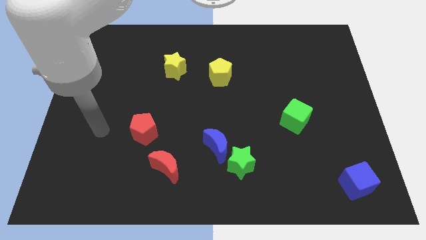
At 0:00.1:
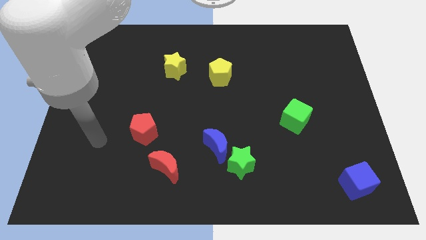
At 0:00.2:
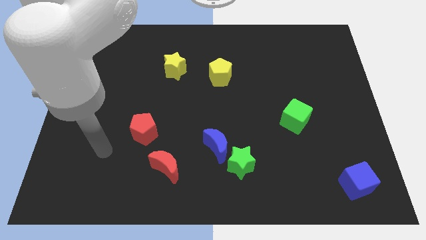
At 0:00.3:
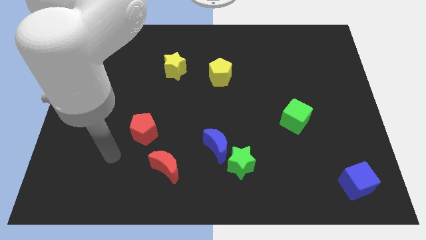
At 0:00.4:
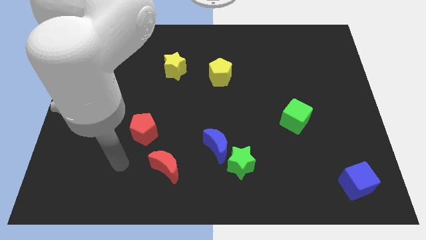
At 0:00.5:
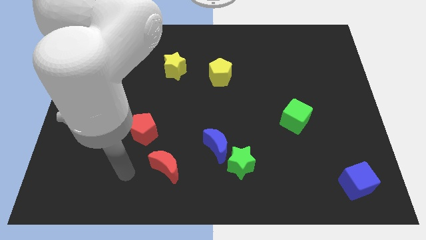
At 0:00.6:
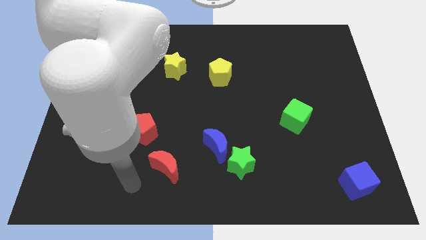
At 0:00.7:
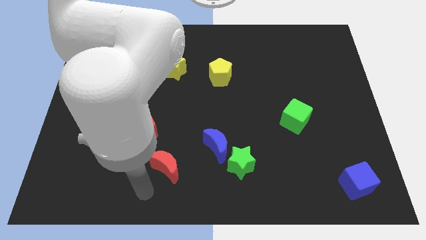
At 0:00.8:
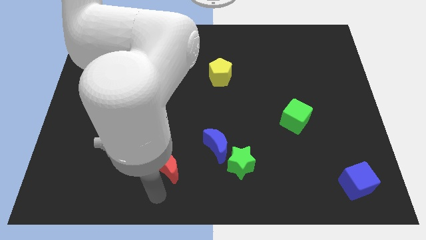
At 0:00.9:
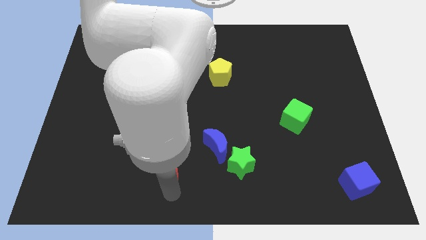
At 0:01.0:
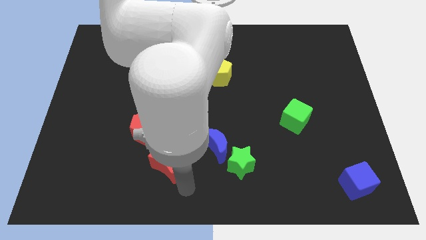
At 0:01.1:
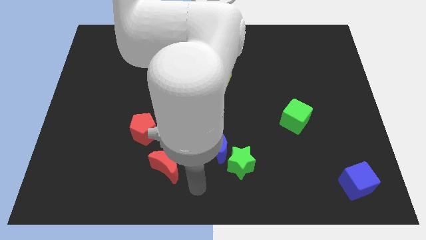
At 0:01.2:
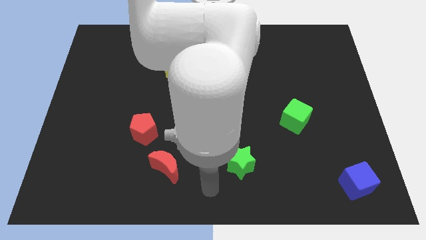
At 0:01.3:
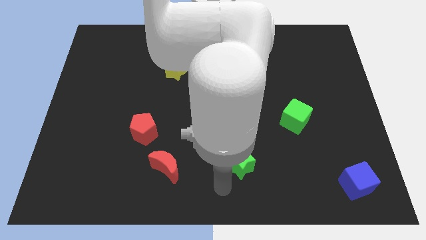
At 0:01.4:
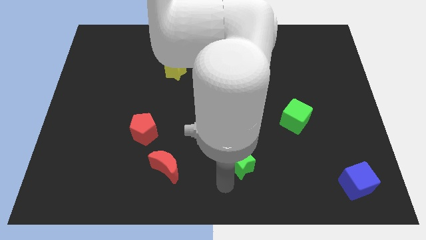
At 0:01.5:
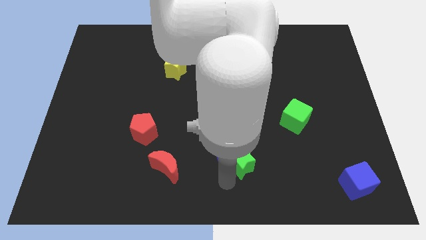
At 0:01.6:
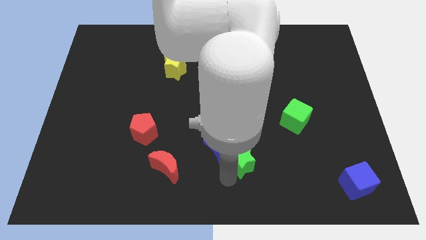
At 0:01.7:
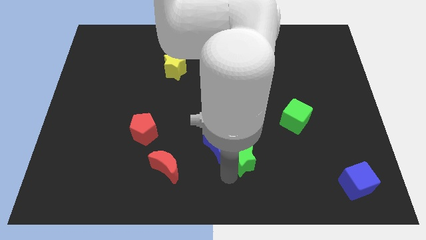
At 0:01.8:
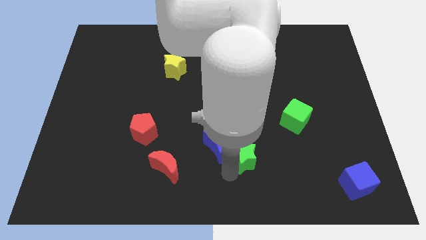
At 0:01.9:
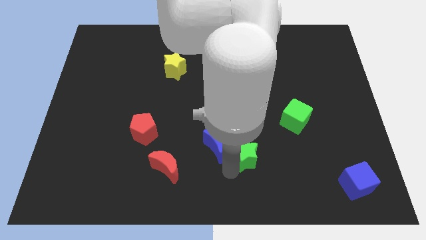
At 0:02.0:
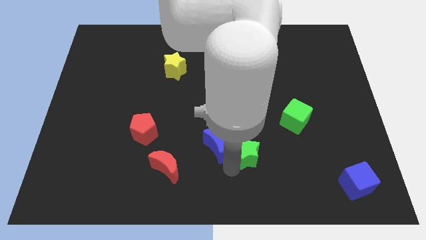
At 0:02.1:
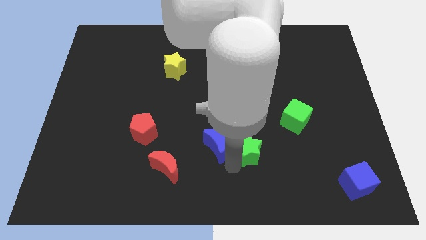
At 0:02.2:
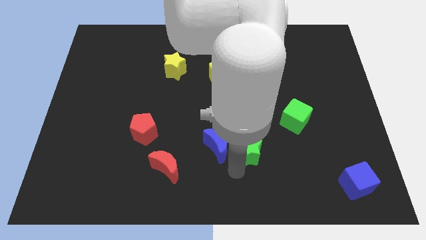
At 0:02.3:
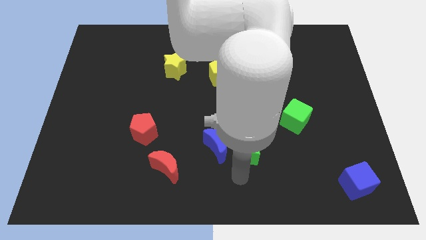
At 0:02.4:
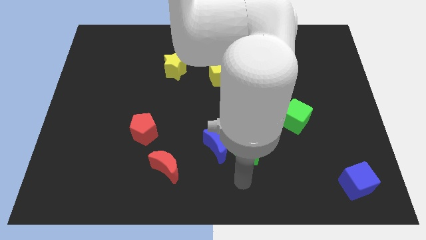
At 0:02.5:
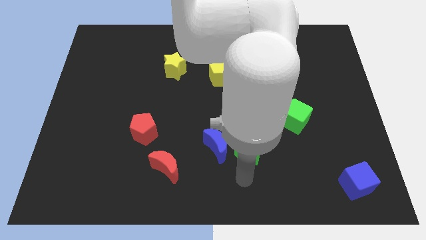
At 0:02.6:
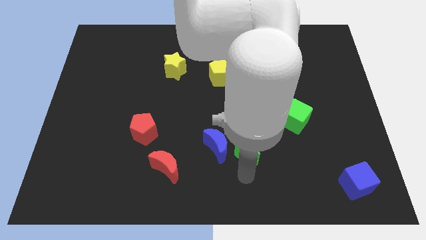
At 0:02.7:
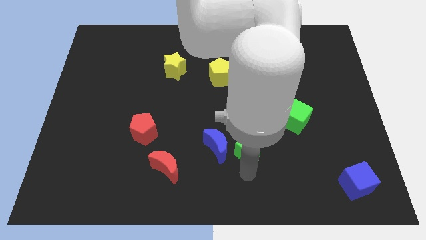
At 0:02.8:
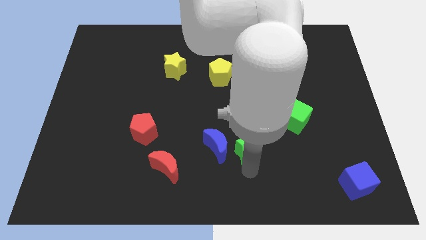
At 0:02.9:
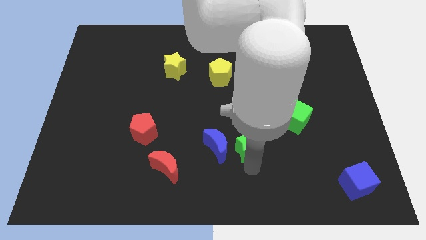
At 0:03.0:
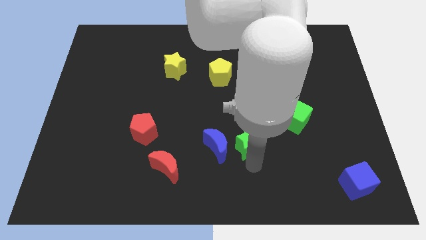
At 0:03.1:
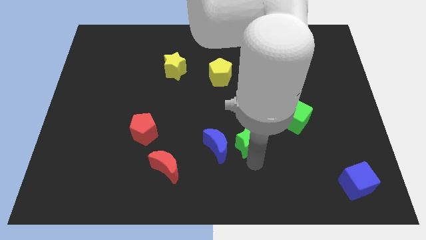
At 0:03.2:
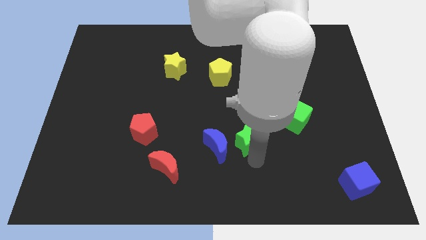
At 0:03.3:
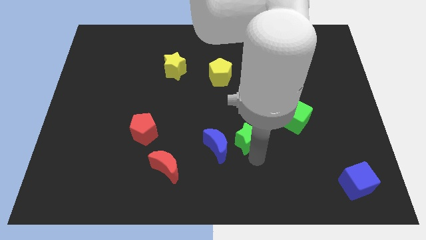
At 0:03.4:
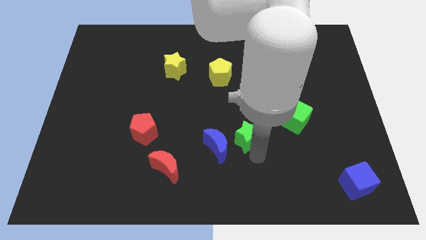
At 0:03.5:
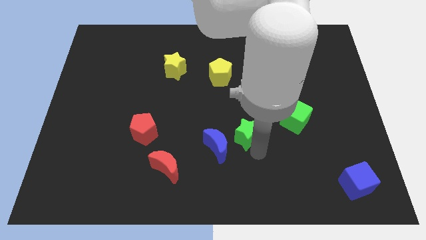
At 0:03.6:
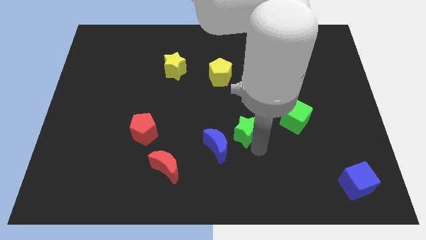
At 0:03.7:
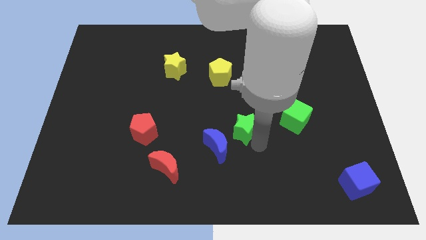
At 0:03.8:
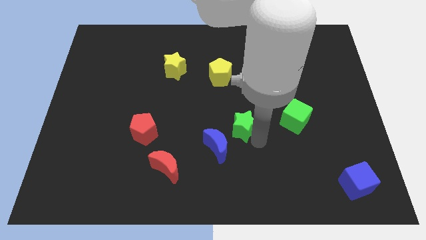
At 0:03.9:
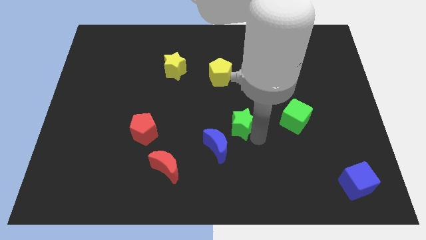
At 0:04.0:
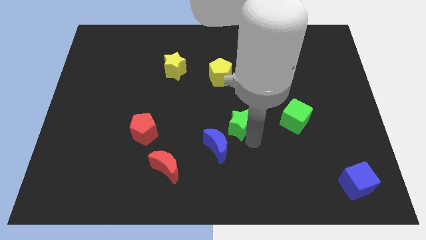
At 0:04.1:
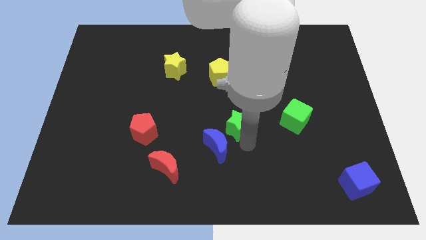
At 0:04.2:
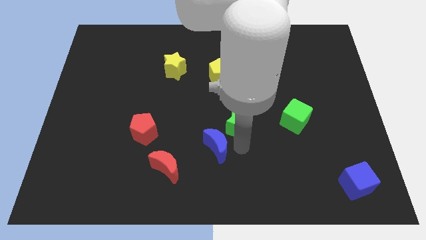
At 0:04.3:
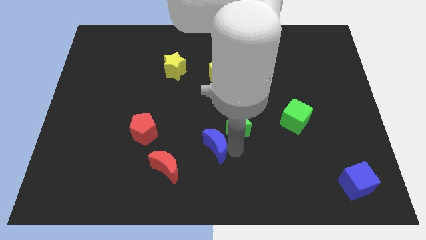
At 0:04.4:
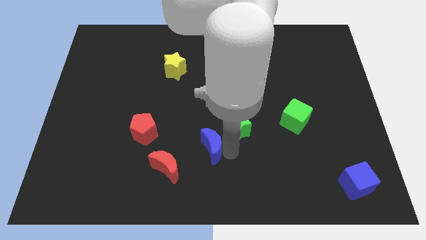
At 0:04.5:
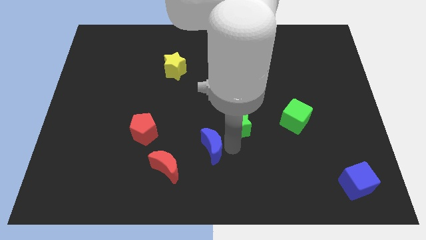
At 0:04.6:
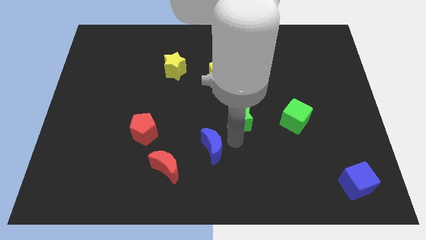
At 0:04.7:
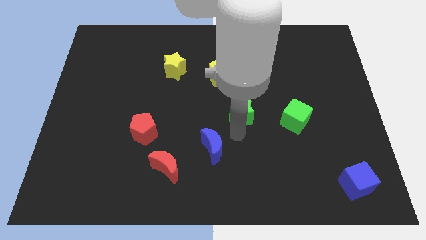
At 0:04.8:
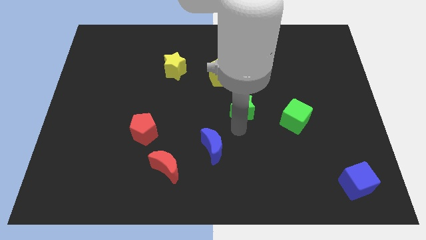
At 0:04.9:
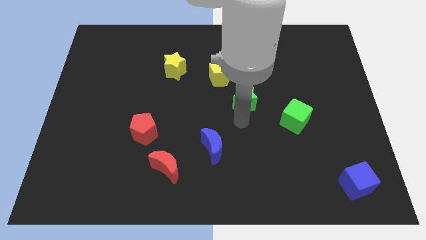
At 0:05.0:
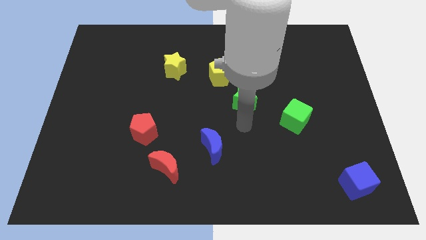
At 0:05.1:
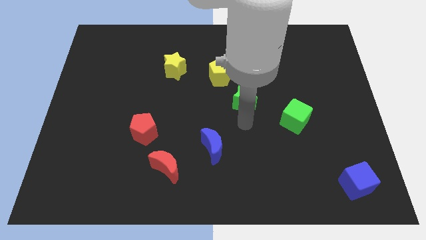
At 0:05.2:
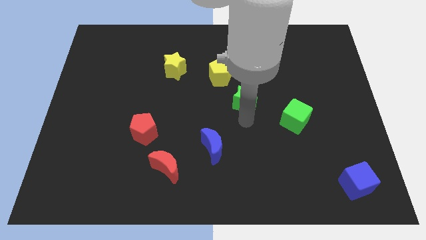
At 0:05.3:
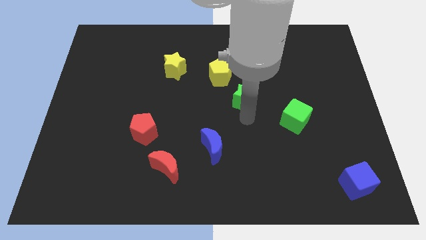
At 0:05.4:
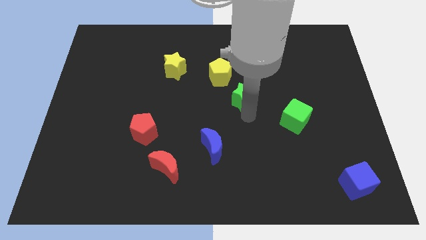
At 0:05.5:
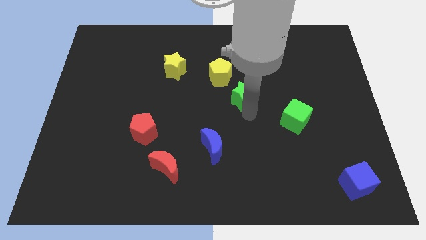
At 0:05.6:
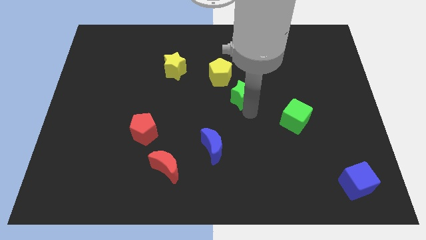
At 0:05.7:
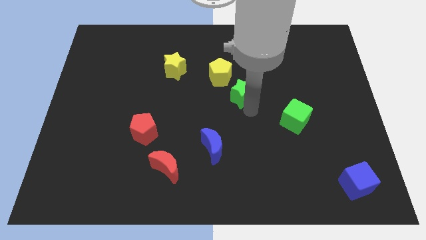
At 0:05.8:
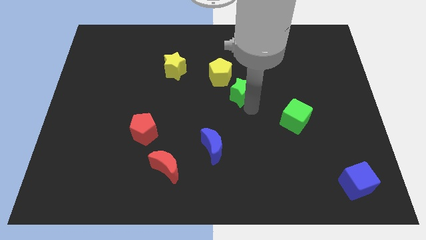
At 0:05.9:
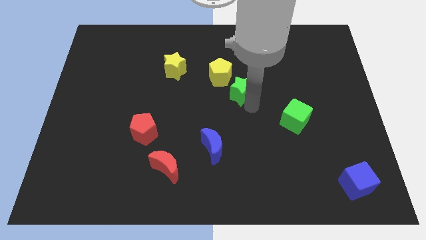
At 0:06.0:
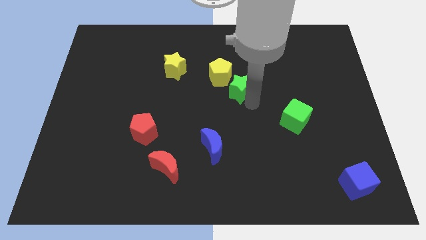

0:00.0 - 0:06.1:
move the green star up

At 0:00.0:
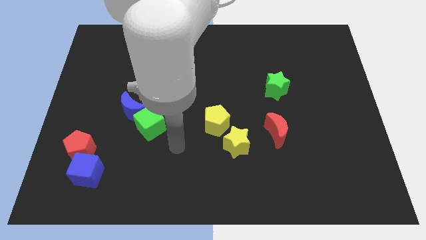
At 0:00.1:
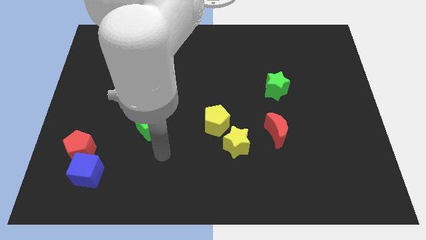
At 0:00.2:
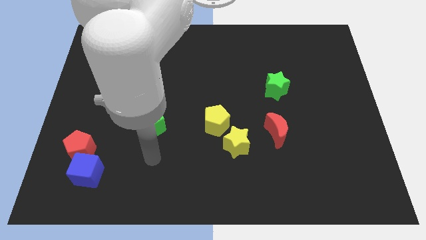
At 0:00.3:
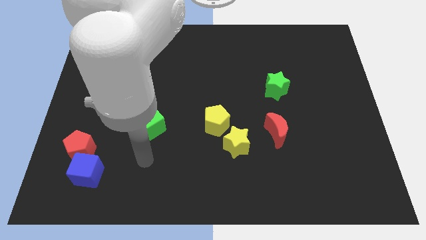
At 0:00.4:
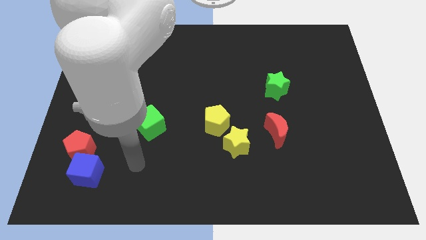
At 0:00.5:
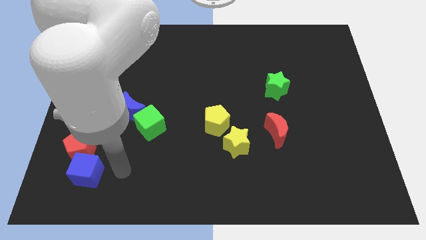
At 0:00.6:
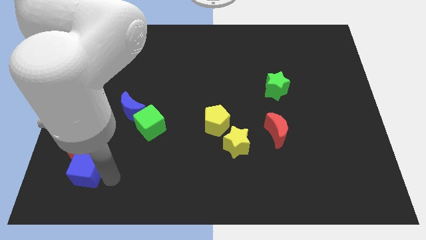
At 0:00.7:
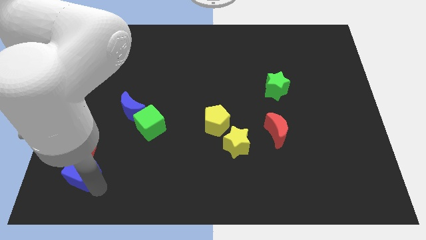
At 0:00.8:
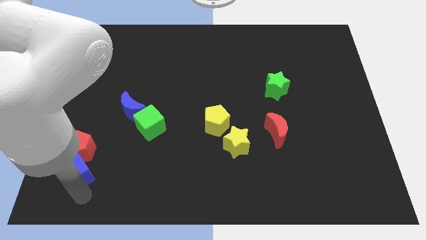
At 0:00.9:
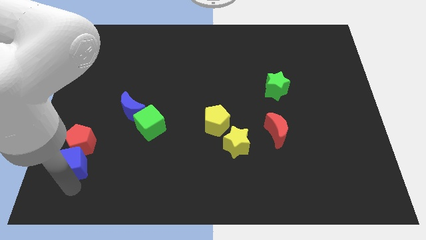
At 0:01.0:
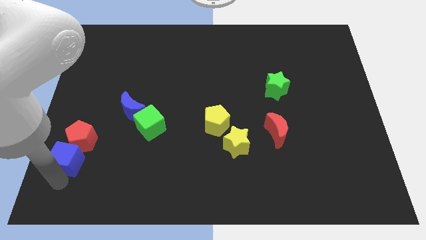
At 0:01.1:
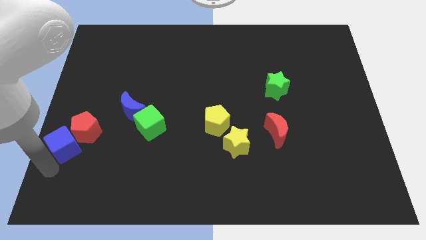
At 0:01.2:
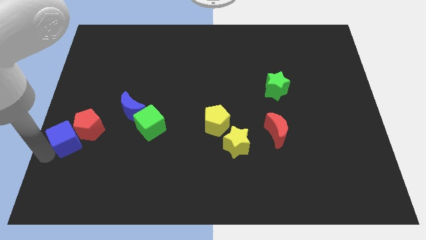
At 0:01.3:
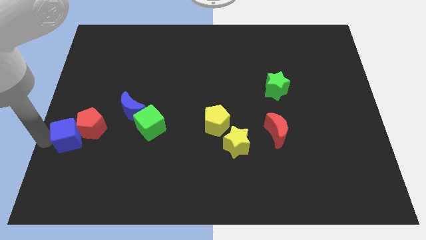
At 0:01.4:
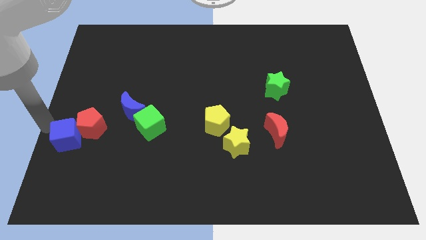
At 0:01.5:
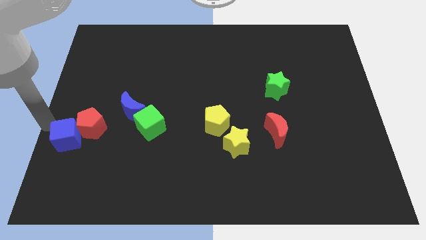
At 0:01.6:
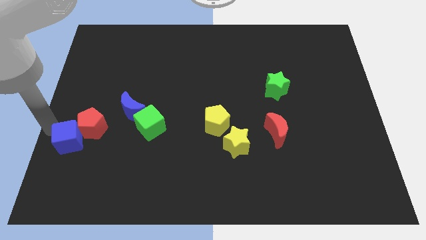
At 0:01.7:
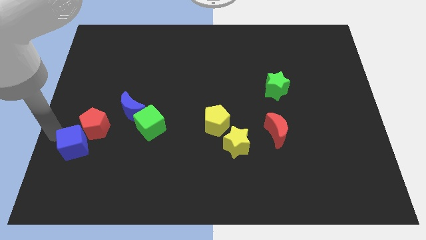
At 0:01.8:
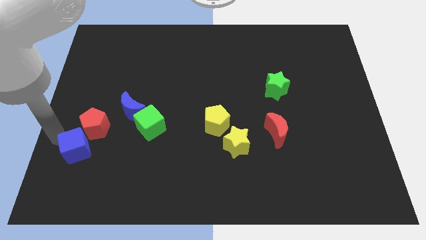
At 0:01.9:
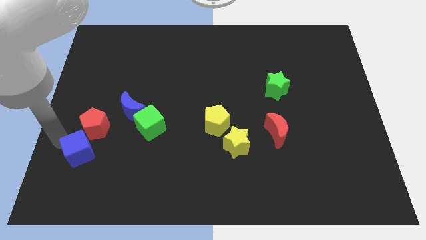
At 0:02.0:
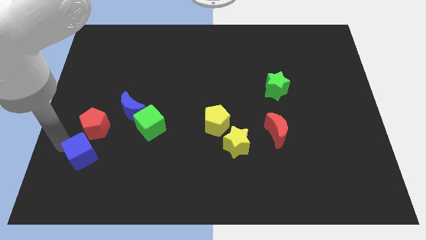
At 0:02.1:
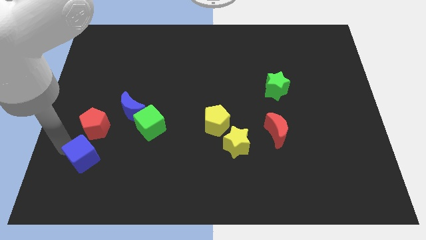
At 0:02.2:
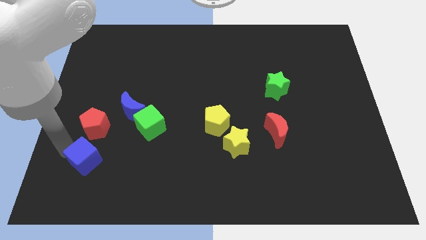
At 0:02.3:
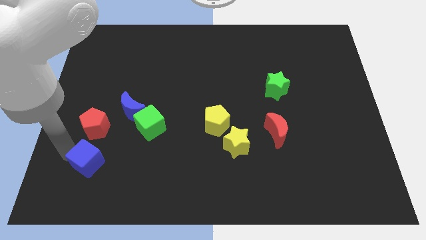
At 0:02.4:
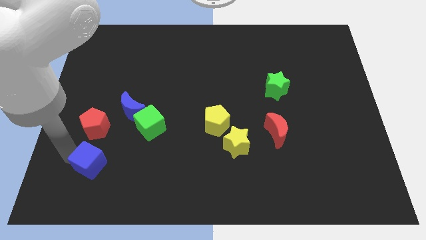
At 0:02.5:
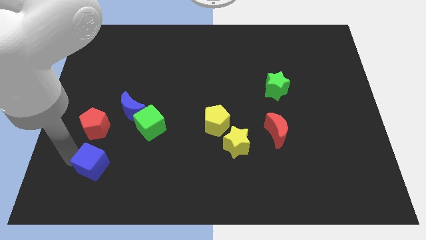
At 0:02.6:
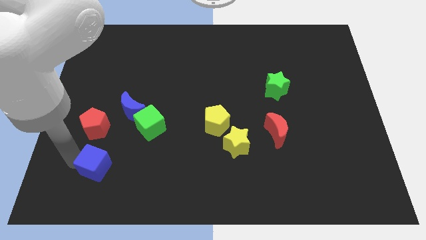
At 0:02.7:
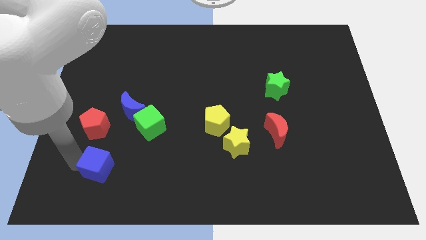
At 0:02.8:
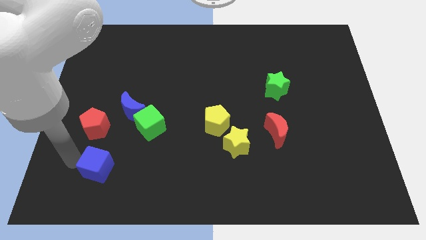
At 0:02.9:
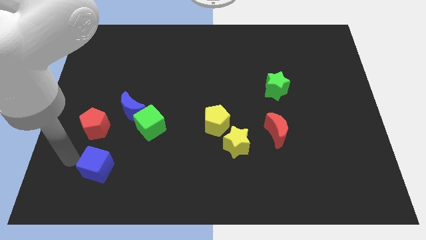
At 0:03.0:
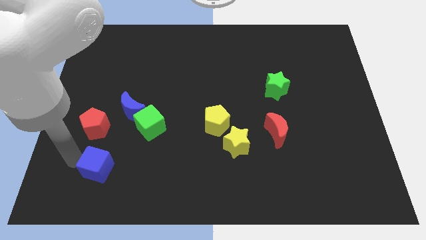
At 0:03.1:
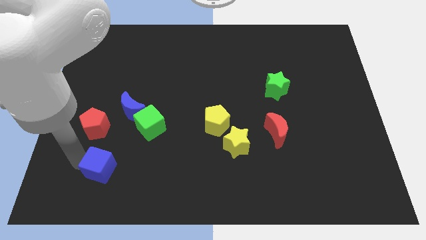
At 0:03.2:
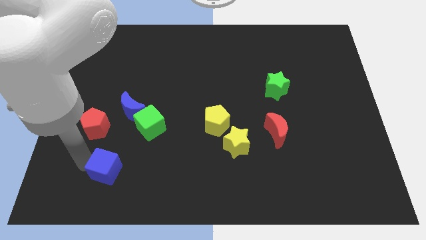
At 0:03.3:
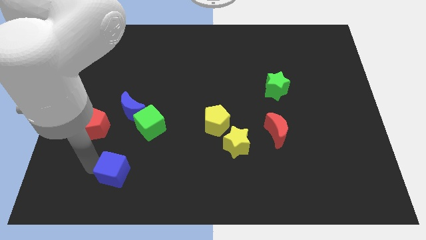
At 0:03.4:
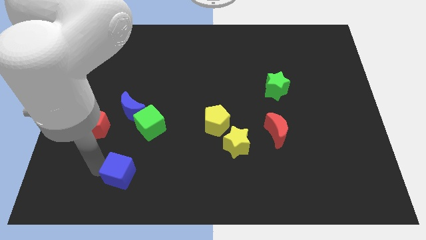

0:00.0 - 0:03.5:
slightly move the blue cube right
